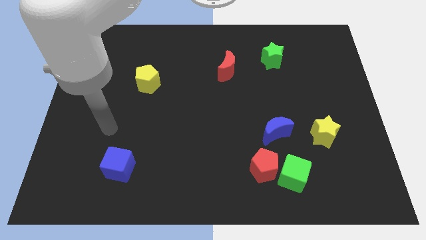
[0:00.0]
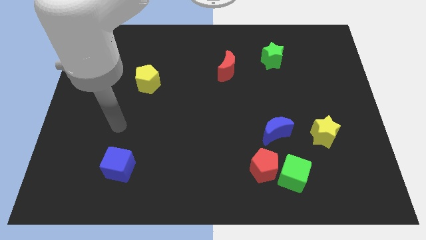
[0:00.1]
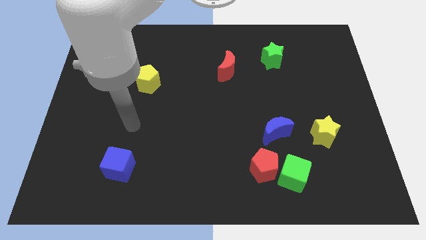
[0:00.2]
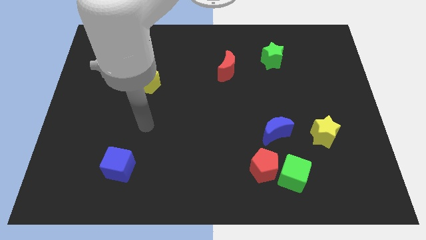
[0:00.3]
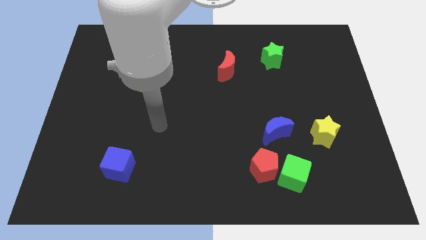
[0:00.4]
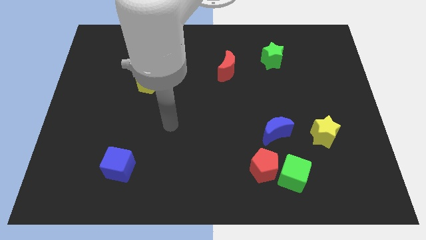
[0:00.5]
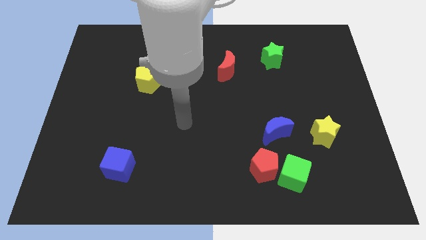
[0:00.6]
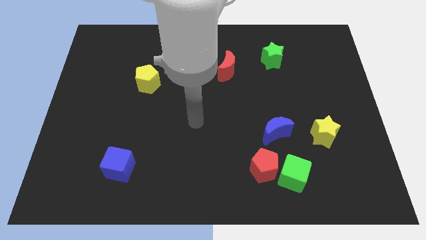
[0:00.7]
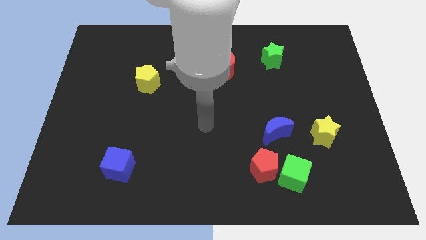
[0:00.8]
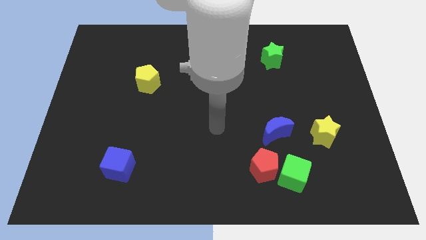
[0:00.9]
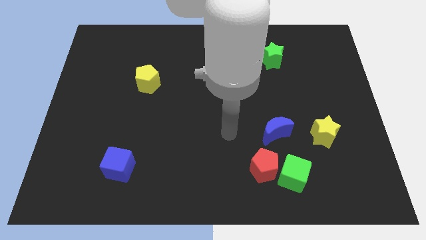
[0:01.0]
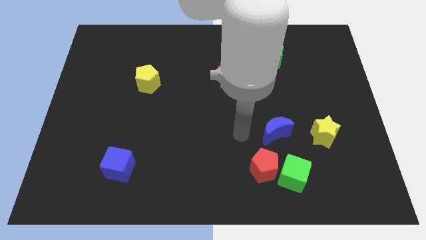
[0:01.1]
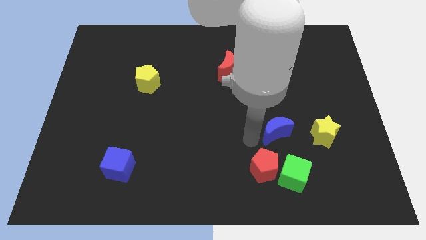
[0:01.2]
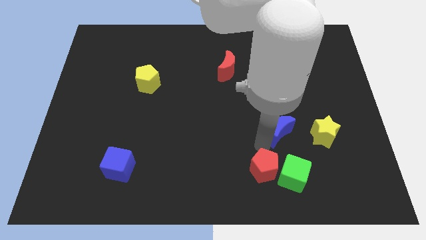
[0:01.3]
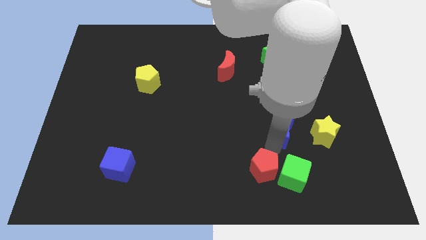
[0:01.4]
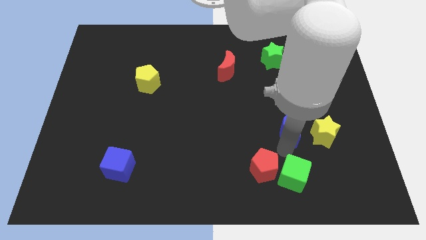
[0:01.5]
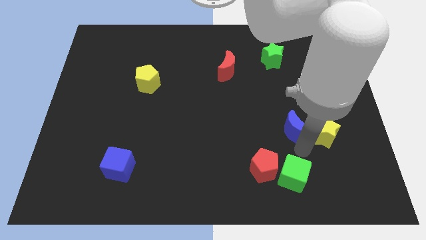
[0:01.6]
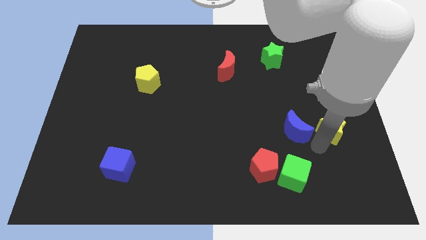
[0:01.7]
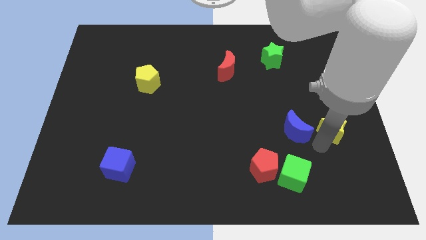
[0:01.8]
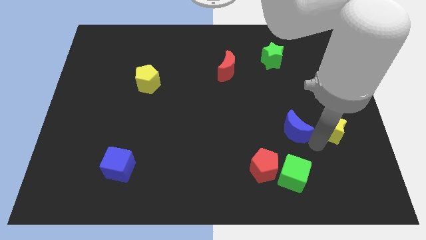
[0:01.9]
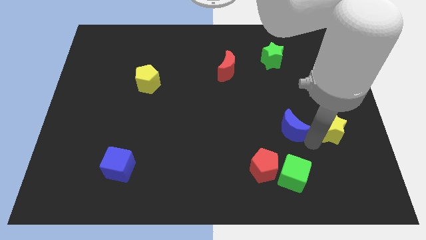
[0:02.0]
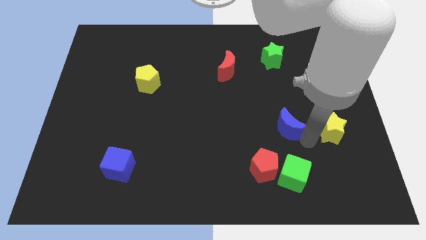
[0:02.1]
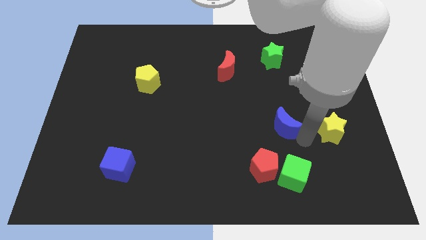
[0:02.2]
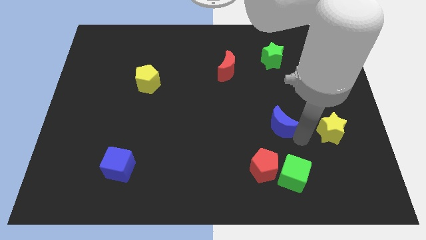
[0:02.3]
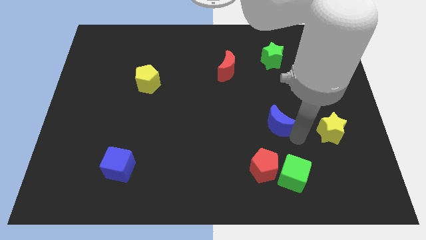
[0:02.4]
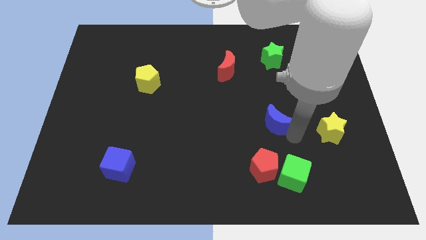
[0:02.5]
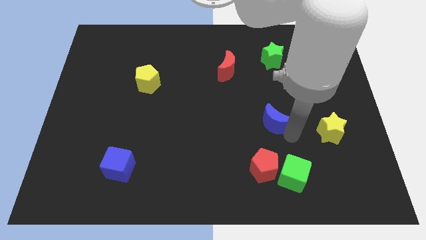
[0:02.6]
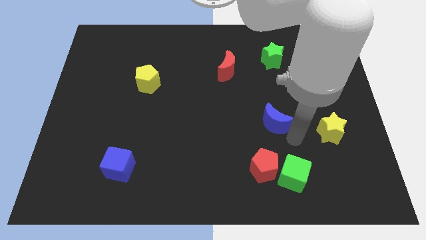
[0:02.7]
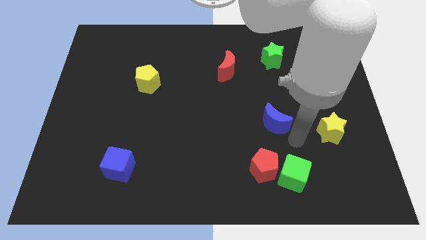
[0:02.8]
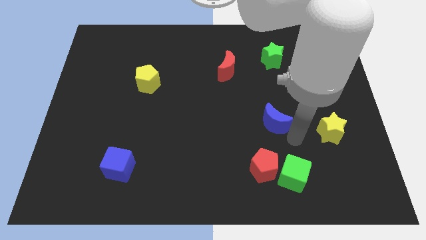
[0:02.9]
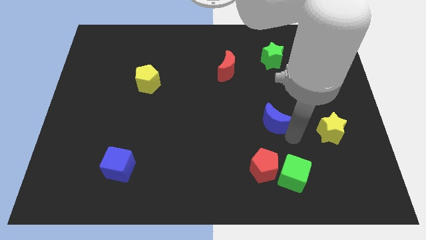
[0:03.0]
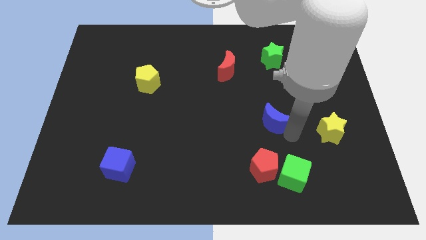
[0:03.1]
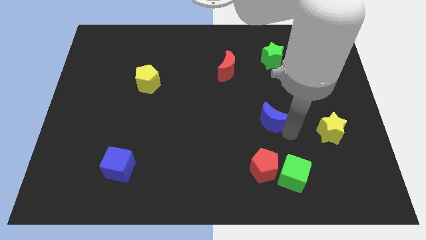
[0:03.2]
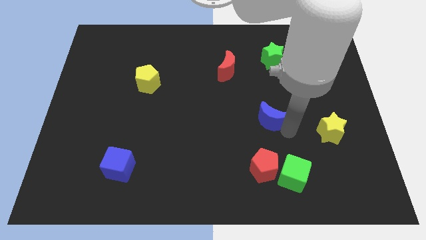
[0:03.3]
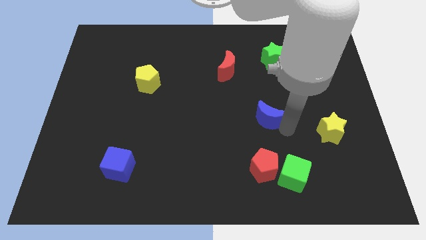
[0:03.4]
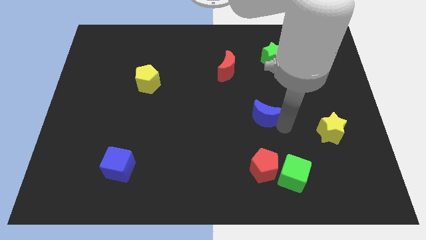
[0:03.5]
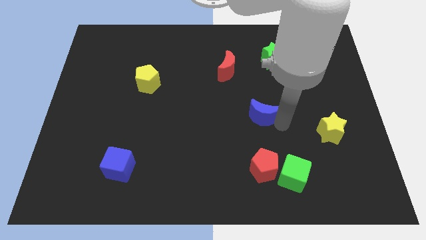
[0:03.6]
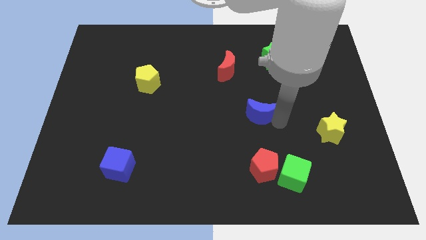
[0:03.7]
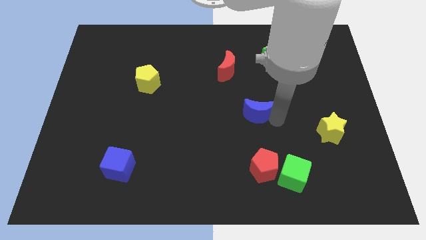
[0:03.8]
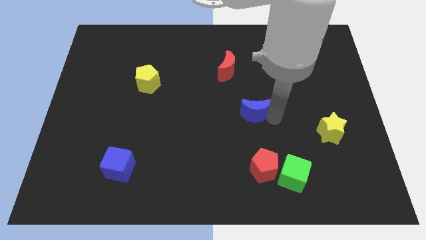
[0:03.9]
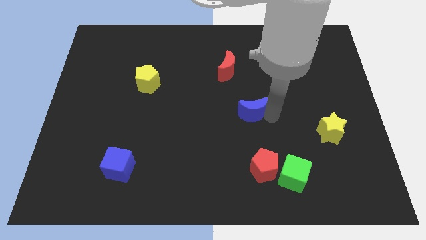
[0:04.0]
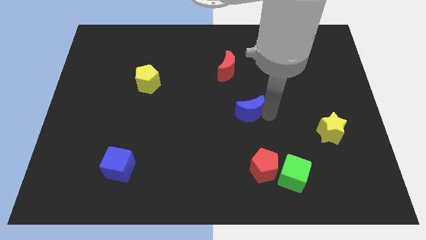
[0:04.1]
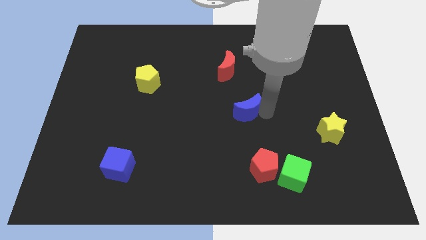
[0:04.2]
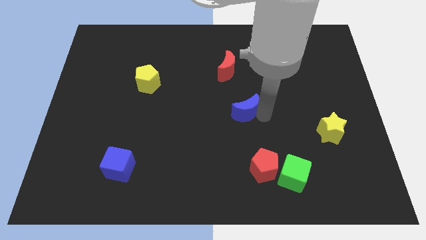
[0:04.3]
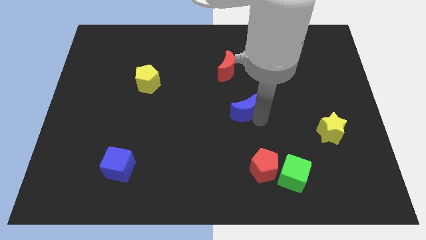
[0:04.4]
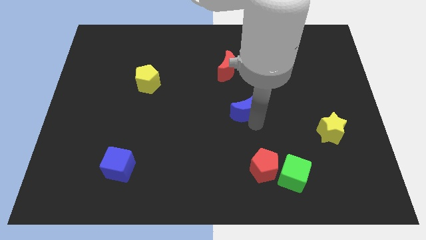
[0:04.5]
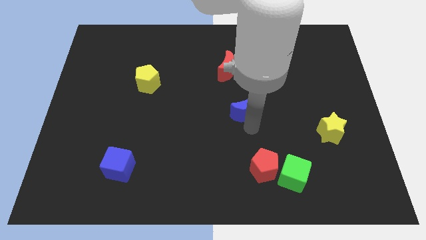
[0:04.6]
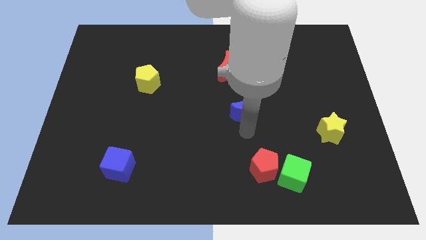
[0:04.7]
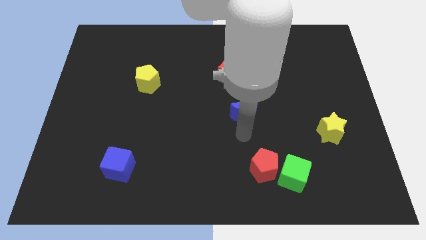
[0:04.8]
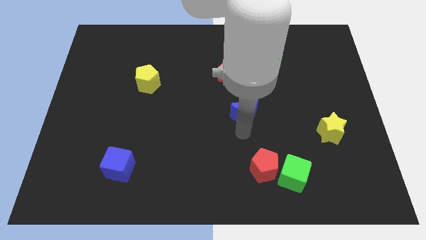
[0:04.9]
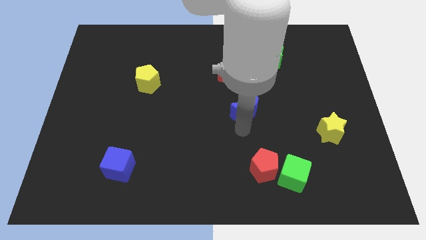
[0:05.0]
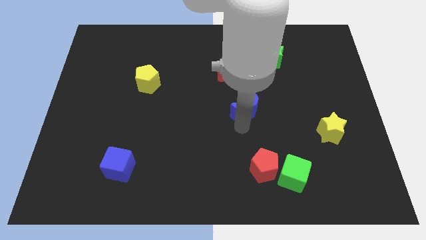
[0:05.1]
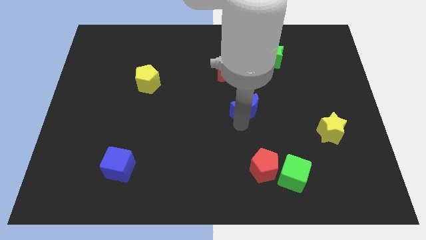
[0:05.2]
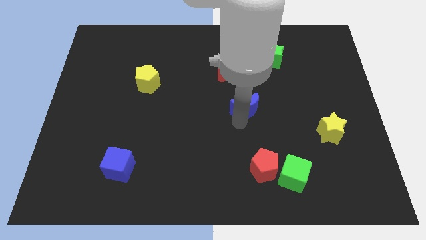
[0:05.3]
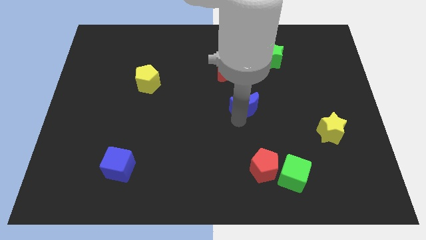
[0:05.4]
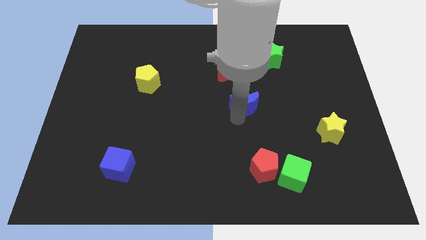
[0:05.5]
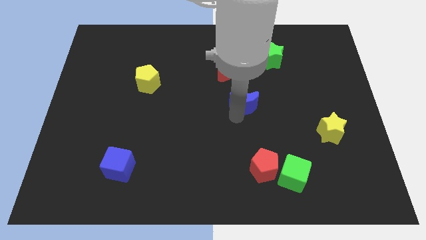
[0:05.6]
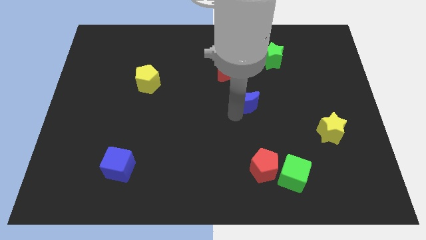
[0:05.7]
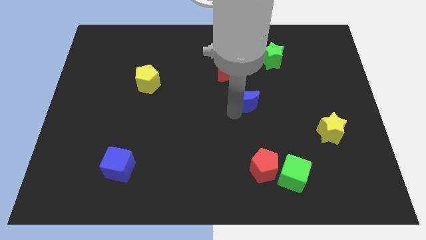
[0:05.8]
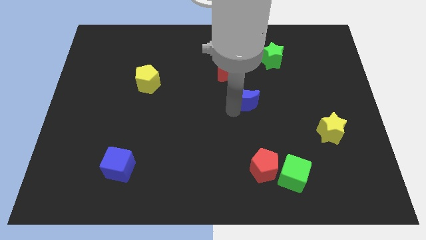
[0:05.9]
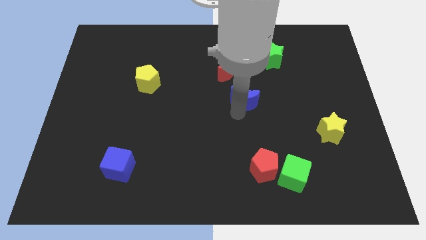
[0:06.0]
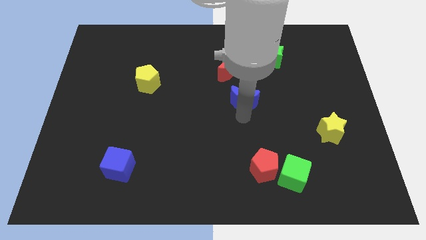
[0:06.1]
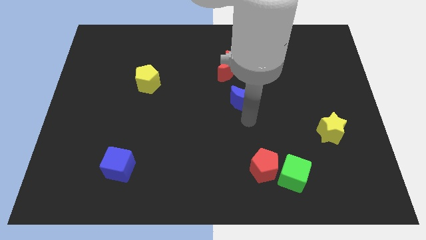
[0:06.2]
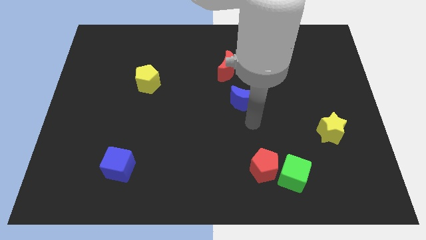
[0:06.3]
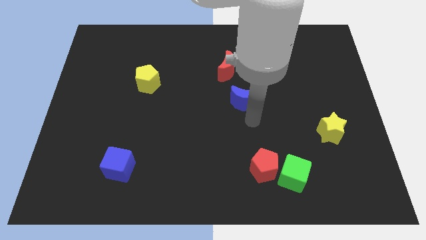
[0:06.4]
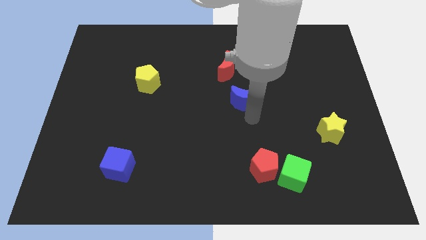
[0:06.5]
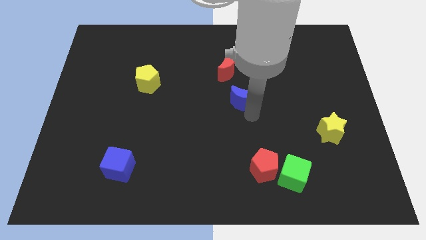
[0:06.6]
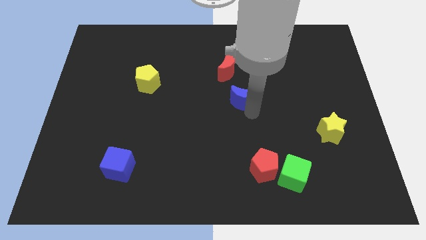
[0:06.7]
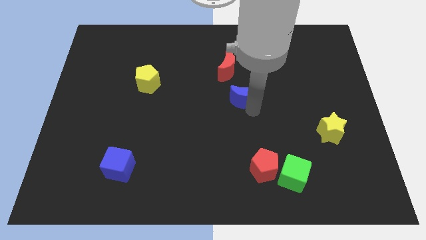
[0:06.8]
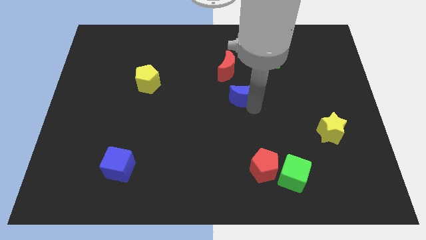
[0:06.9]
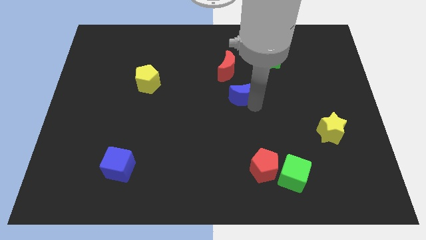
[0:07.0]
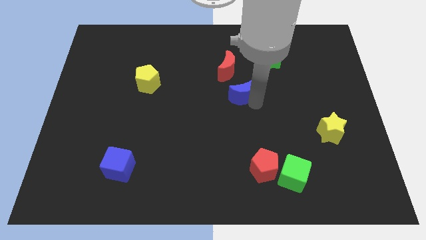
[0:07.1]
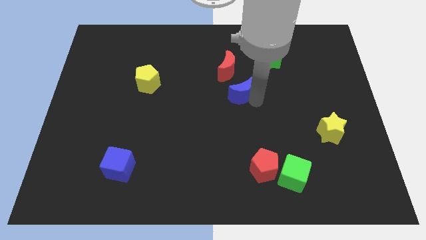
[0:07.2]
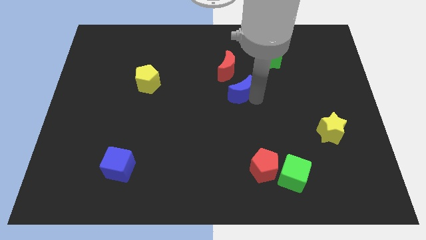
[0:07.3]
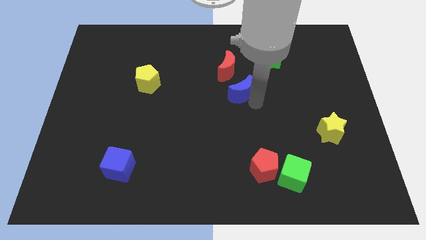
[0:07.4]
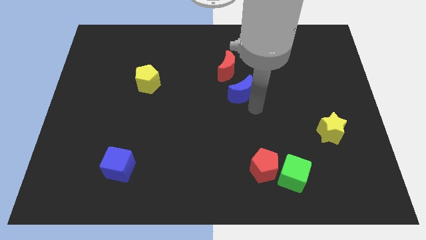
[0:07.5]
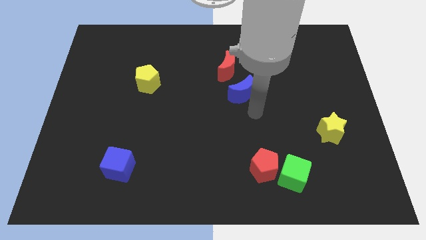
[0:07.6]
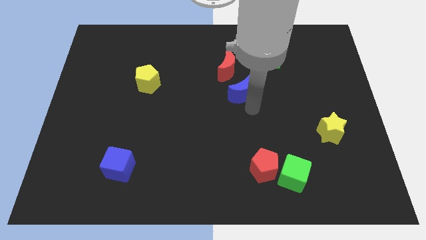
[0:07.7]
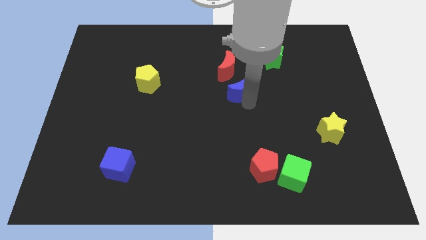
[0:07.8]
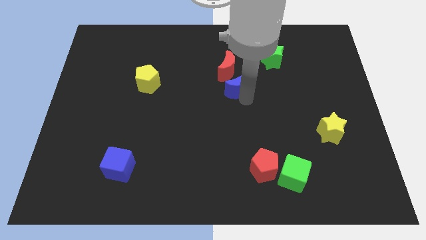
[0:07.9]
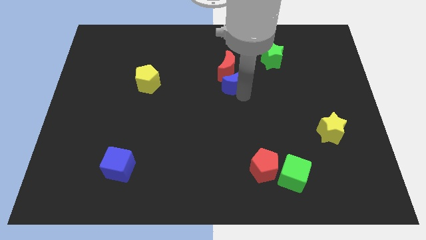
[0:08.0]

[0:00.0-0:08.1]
push the blue moon to the red moon
